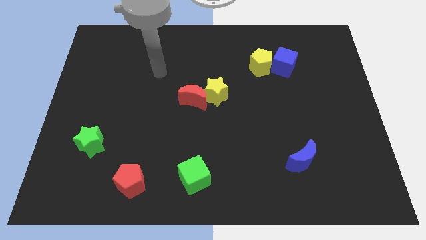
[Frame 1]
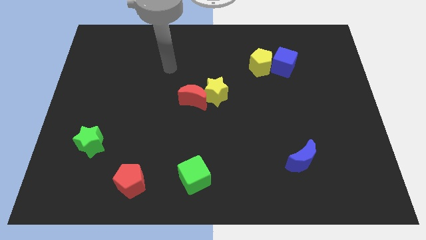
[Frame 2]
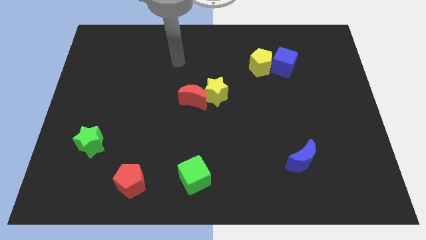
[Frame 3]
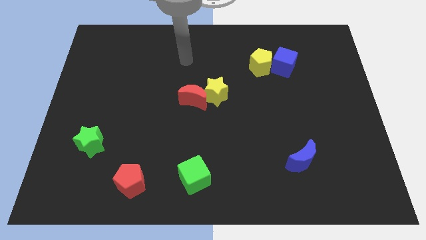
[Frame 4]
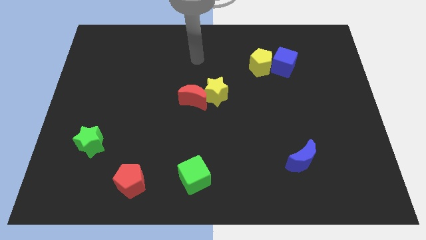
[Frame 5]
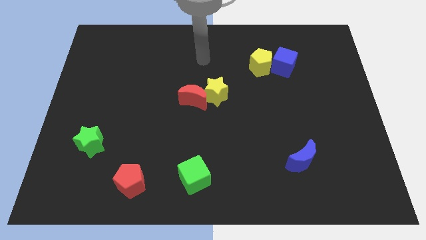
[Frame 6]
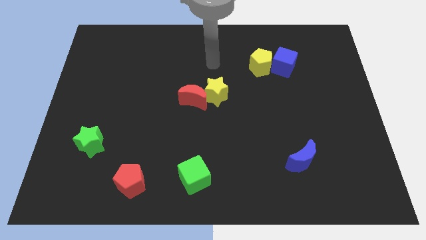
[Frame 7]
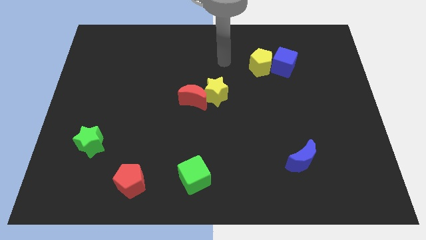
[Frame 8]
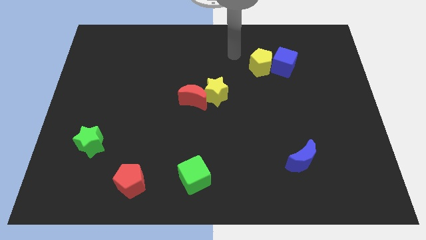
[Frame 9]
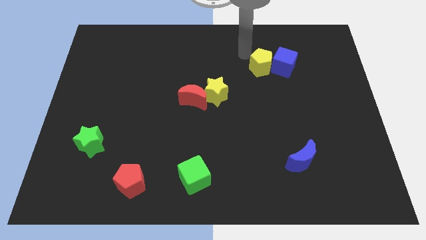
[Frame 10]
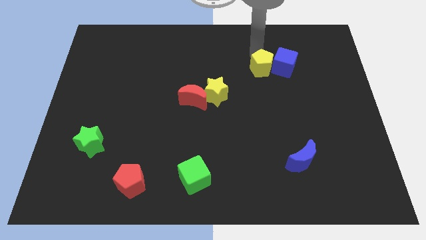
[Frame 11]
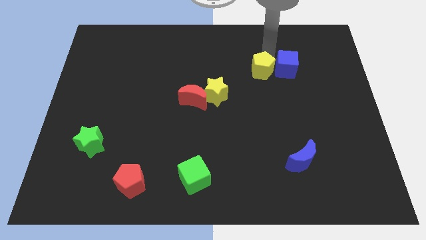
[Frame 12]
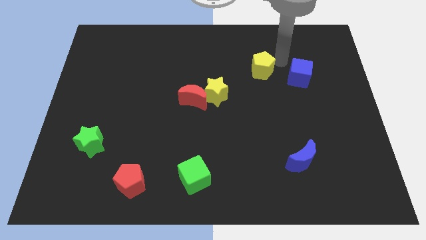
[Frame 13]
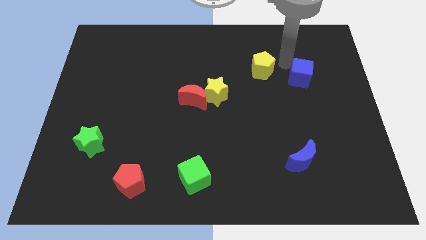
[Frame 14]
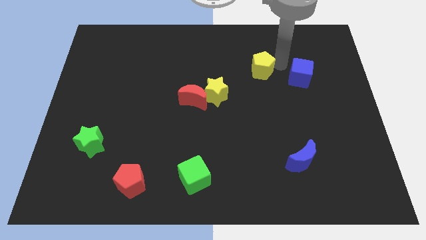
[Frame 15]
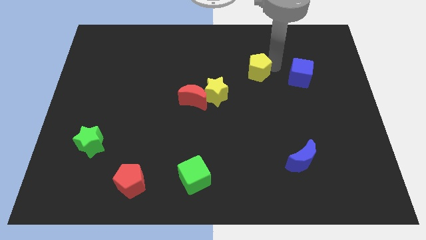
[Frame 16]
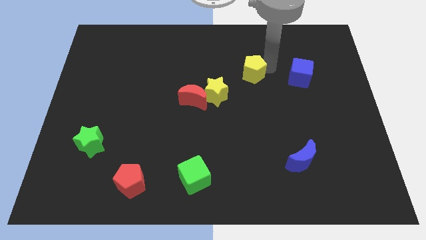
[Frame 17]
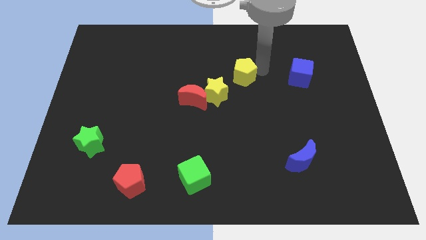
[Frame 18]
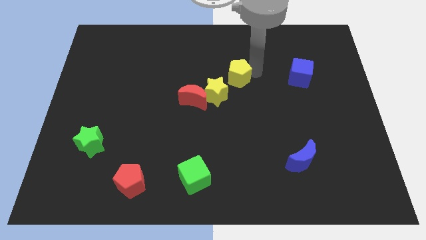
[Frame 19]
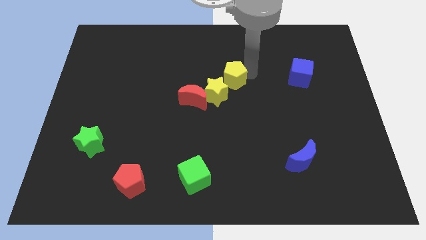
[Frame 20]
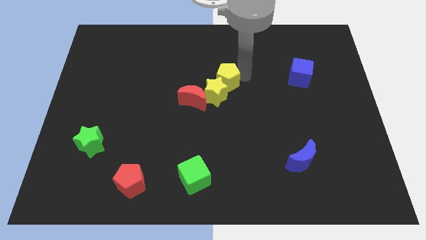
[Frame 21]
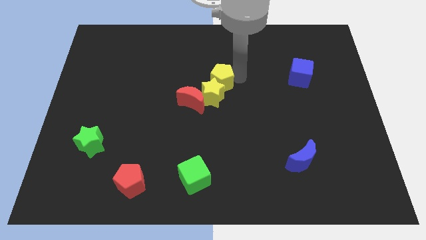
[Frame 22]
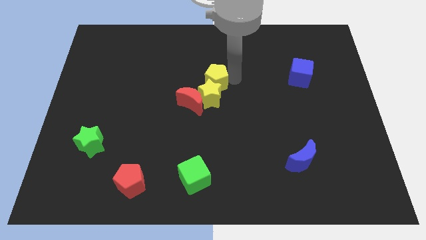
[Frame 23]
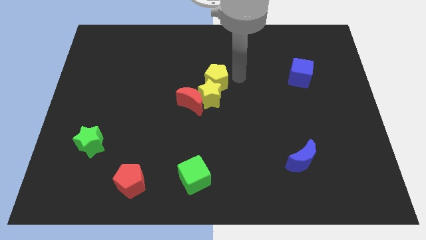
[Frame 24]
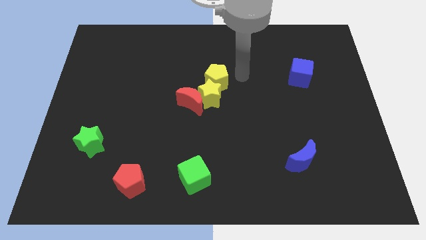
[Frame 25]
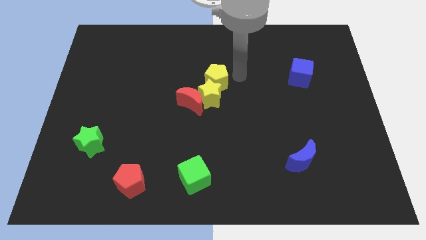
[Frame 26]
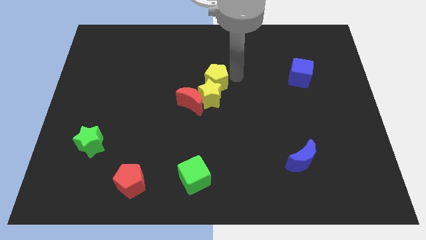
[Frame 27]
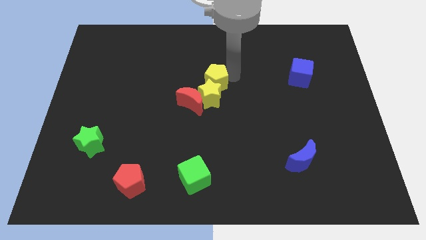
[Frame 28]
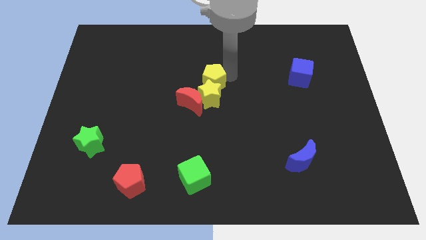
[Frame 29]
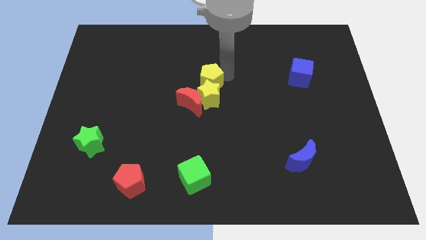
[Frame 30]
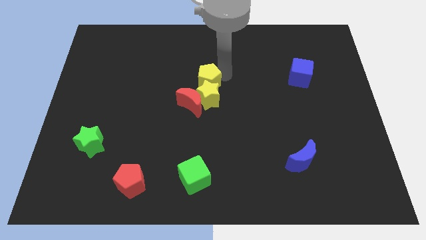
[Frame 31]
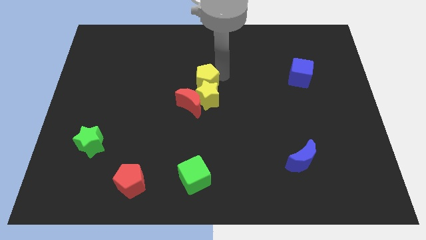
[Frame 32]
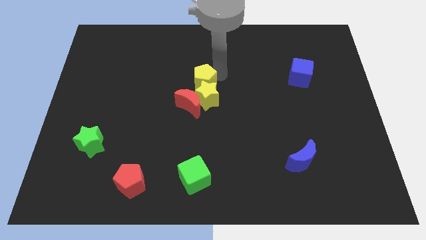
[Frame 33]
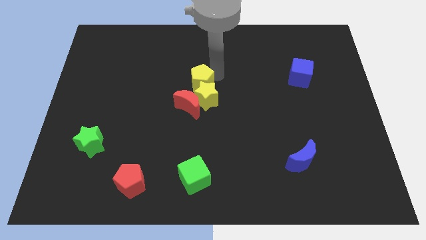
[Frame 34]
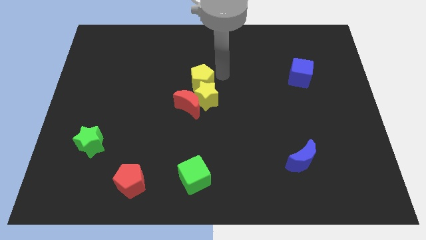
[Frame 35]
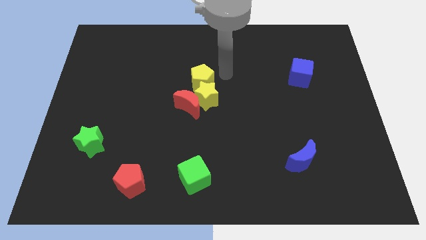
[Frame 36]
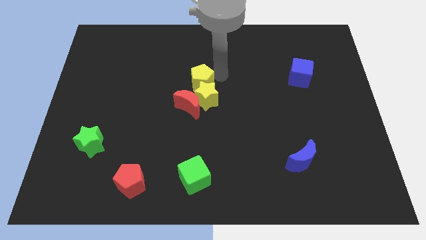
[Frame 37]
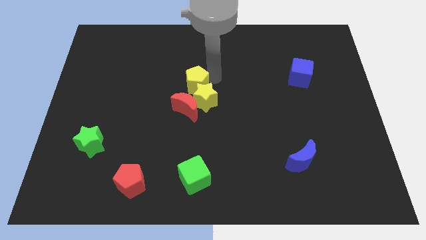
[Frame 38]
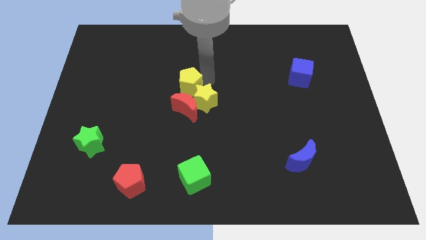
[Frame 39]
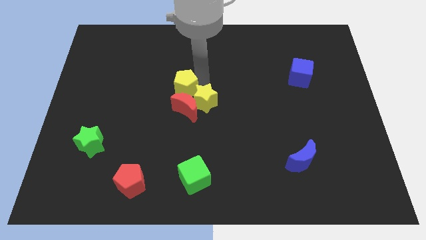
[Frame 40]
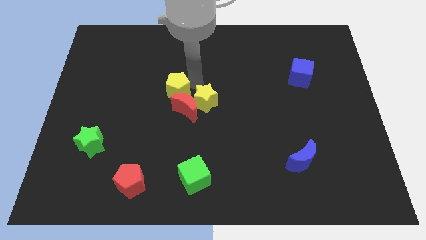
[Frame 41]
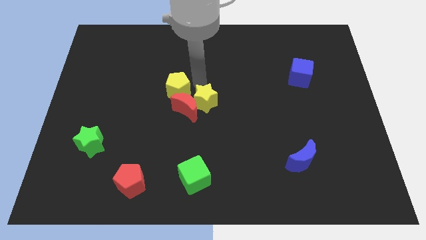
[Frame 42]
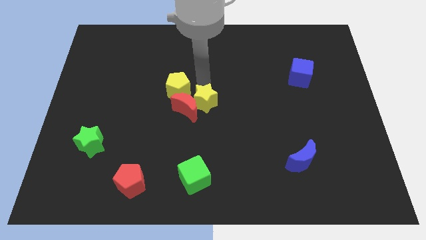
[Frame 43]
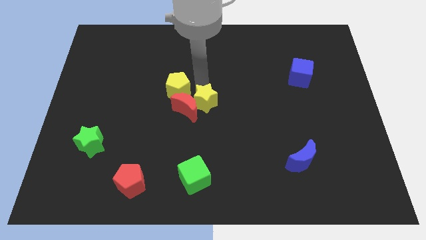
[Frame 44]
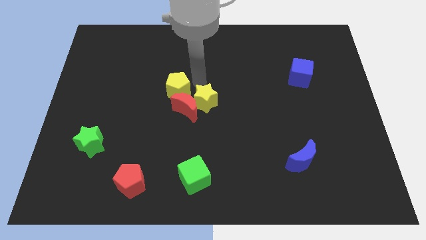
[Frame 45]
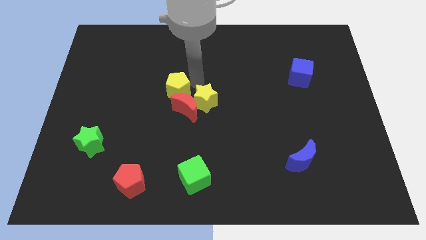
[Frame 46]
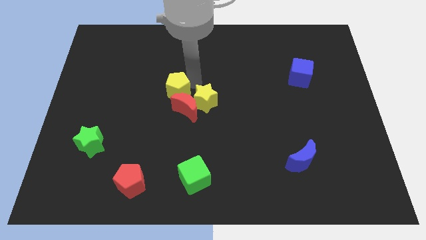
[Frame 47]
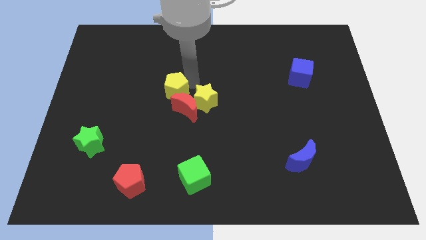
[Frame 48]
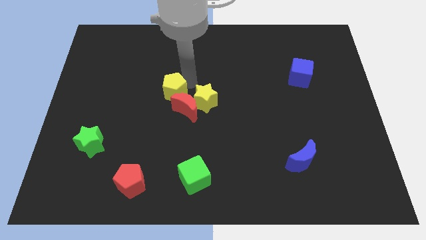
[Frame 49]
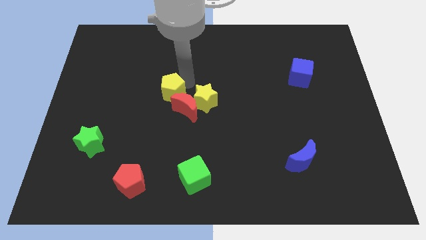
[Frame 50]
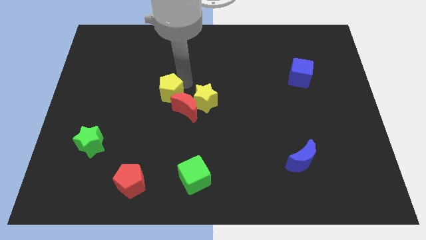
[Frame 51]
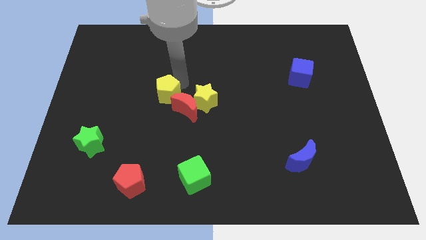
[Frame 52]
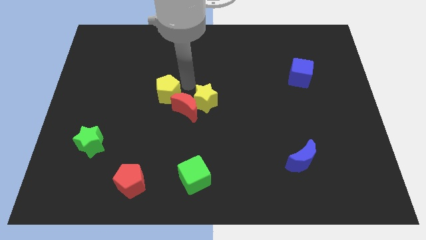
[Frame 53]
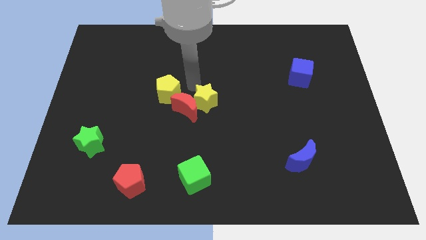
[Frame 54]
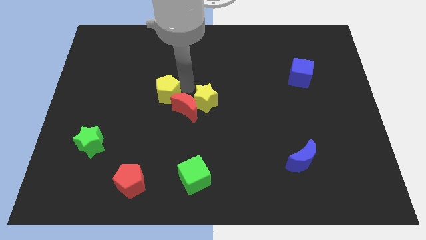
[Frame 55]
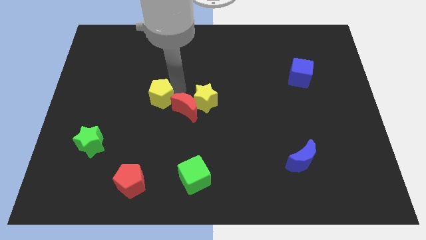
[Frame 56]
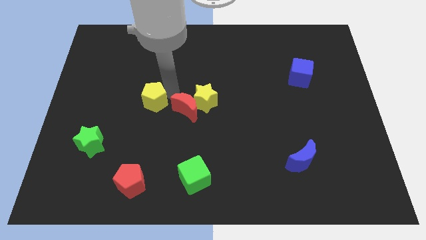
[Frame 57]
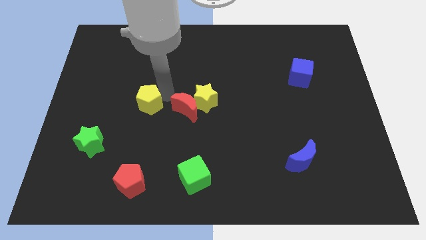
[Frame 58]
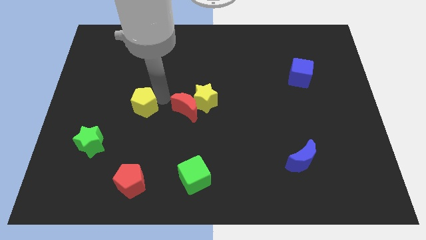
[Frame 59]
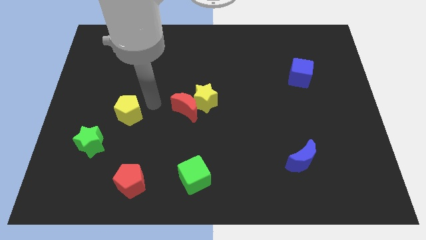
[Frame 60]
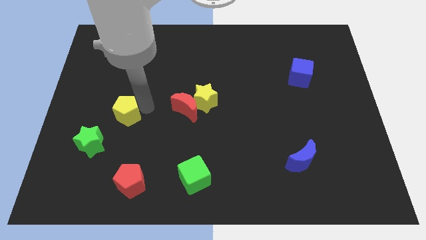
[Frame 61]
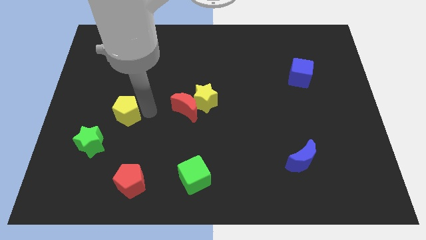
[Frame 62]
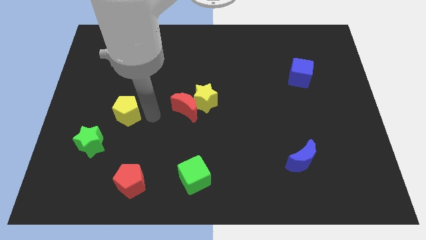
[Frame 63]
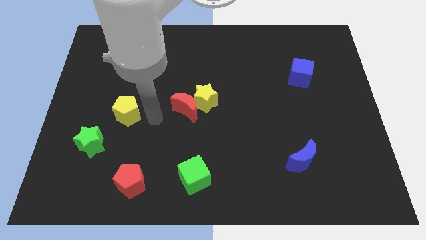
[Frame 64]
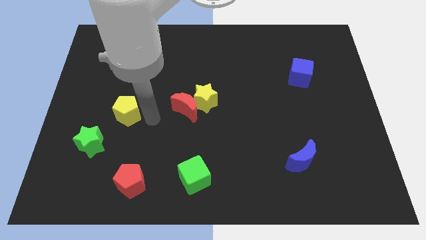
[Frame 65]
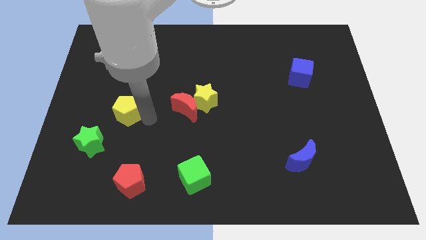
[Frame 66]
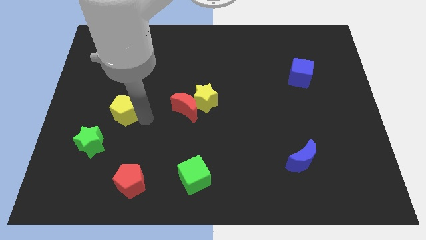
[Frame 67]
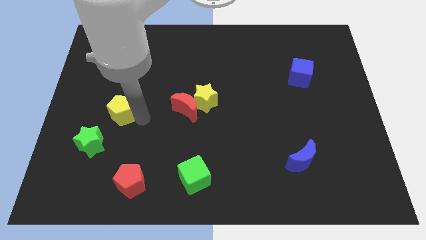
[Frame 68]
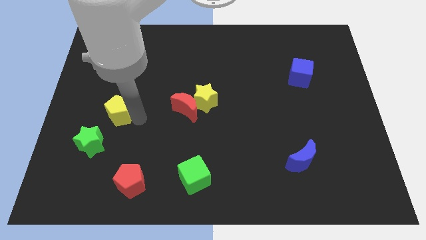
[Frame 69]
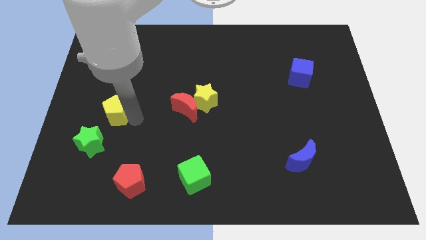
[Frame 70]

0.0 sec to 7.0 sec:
put the yellow pentagon to the top side of the green star

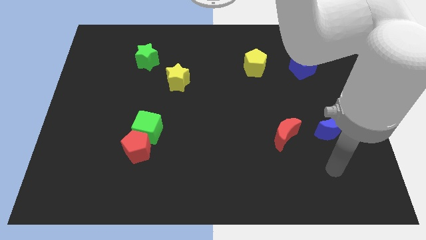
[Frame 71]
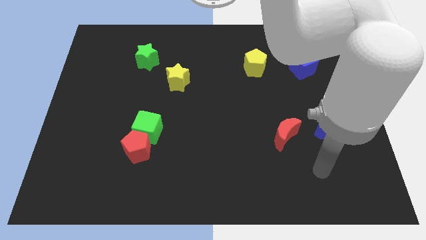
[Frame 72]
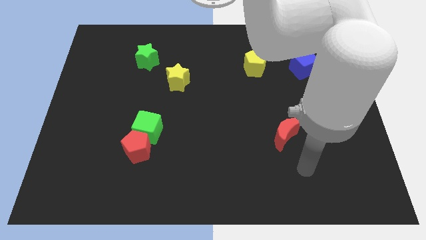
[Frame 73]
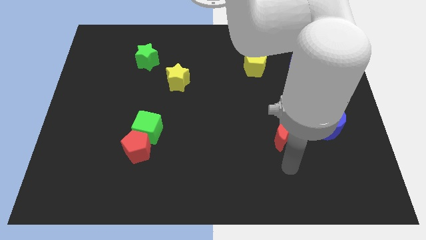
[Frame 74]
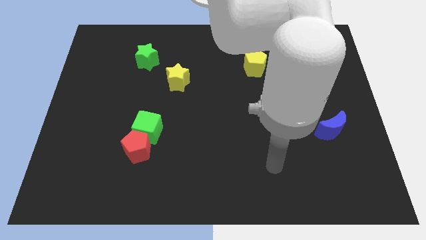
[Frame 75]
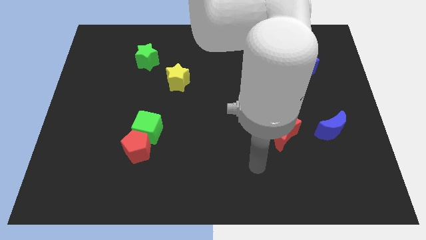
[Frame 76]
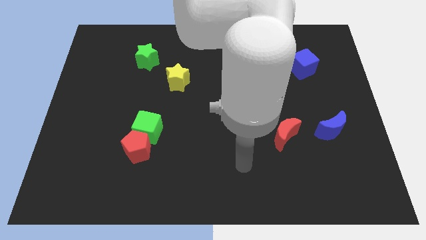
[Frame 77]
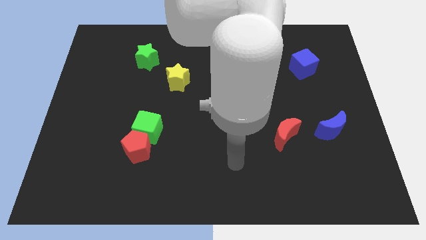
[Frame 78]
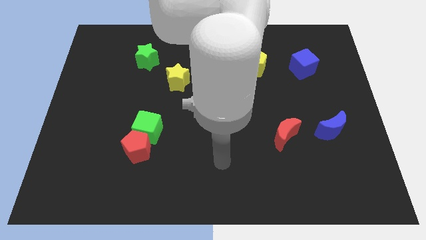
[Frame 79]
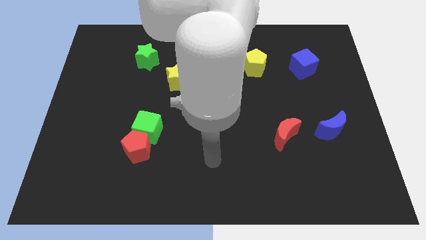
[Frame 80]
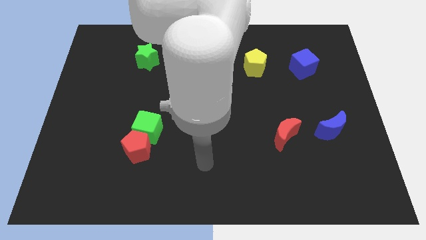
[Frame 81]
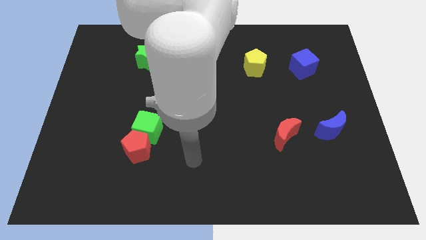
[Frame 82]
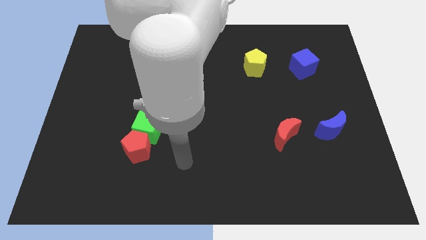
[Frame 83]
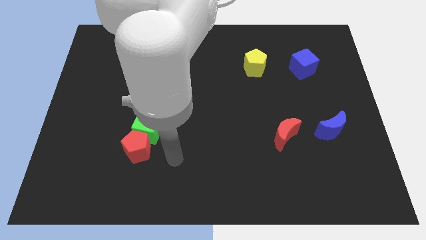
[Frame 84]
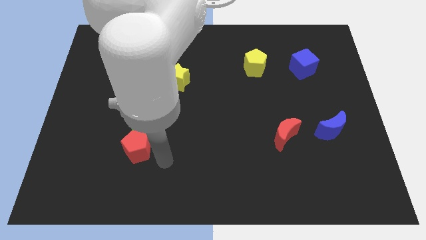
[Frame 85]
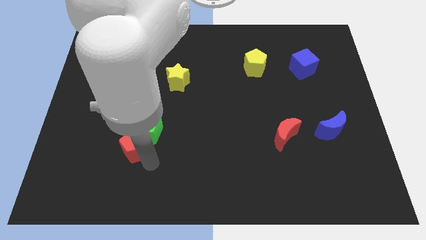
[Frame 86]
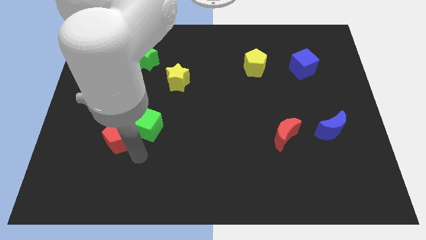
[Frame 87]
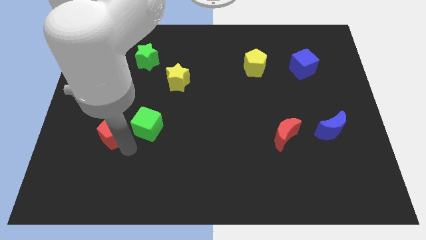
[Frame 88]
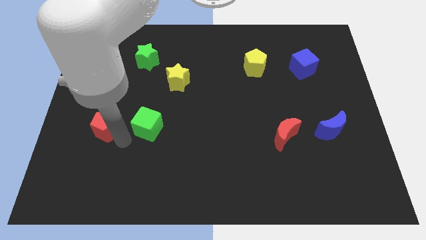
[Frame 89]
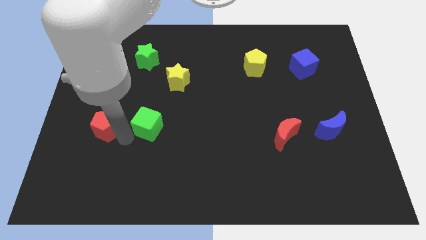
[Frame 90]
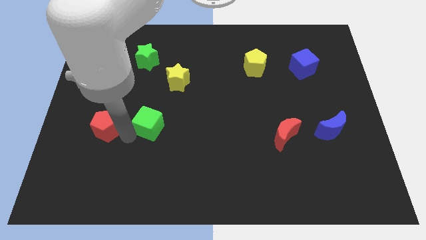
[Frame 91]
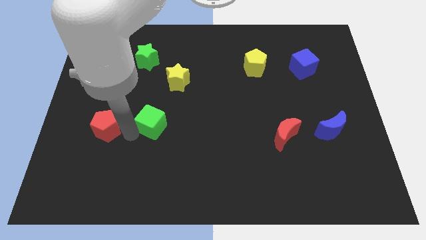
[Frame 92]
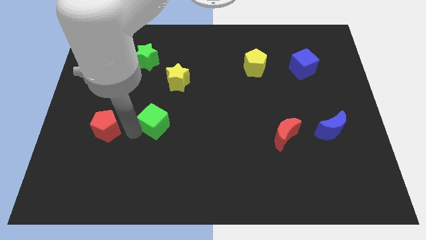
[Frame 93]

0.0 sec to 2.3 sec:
push the green cube below the yellow star
